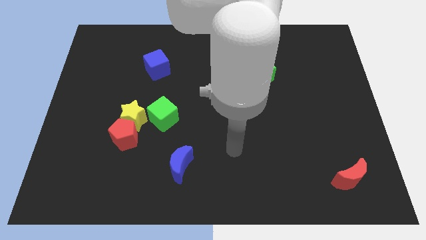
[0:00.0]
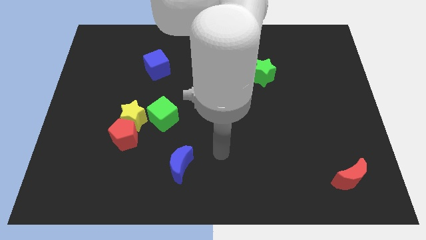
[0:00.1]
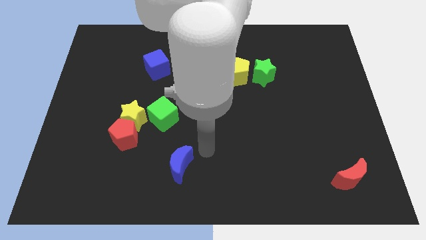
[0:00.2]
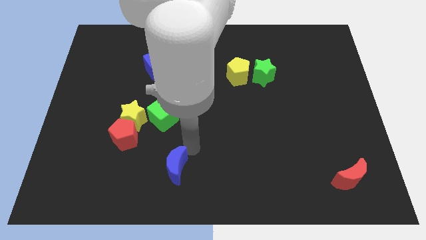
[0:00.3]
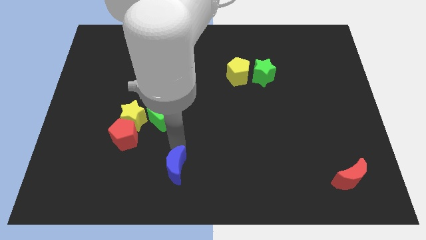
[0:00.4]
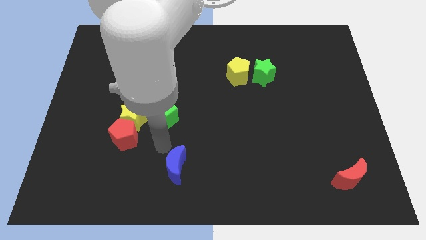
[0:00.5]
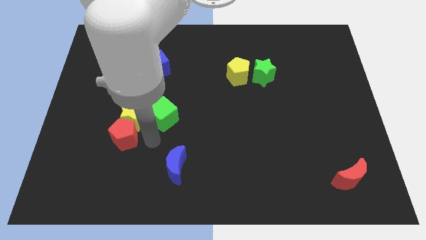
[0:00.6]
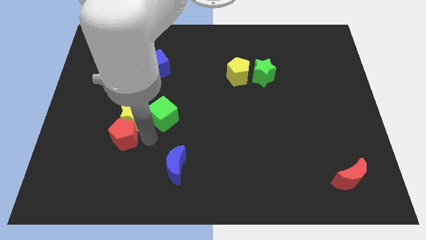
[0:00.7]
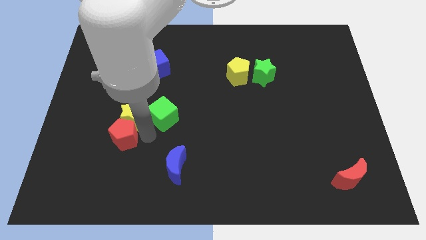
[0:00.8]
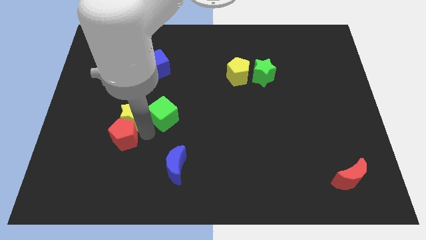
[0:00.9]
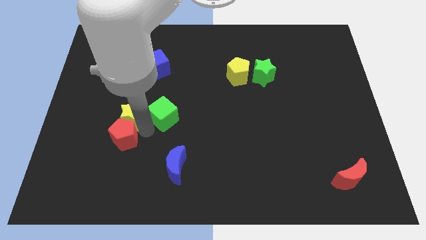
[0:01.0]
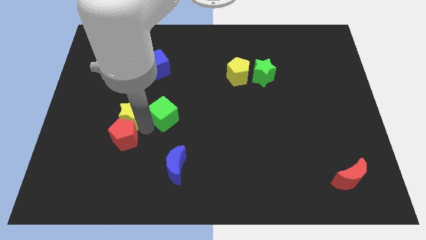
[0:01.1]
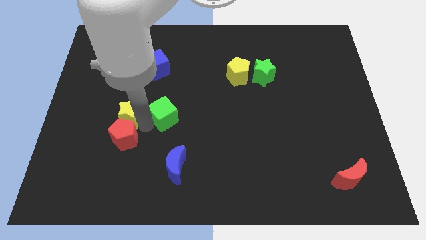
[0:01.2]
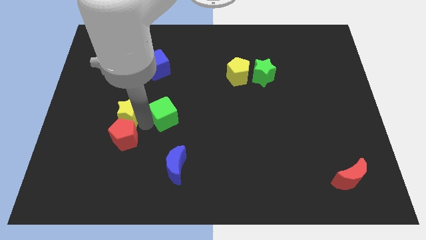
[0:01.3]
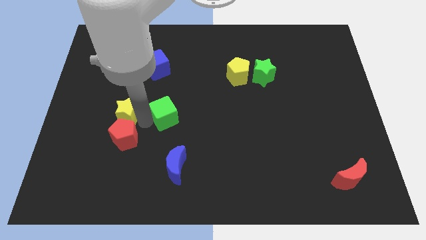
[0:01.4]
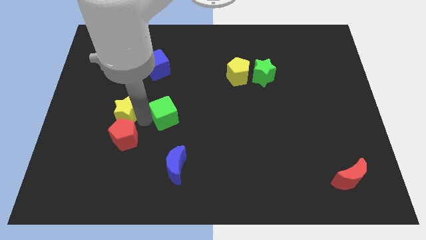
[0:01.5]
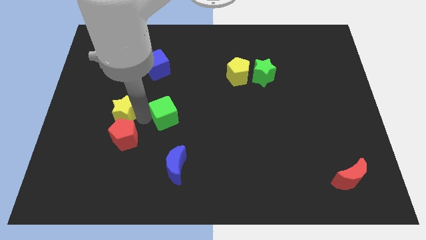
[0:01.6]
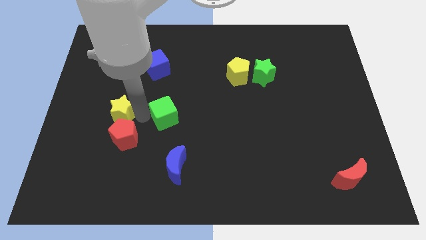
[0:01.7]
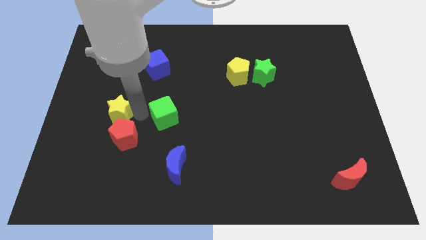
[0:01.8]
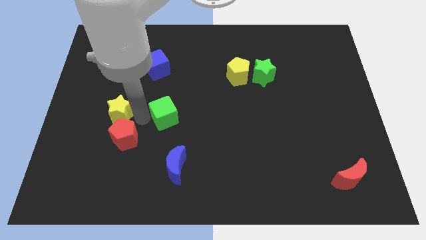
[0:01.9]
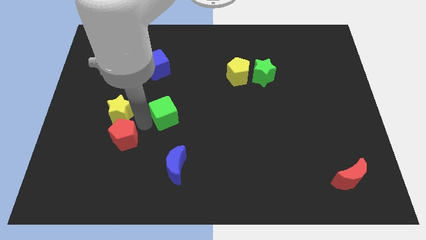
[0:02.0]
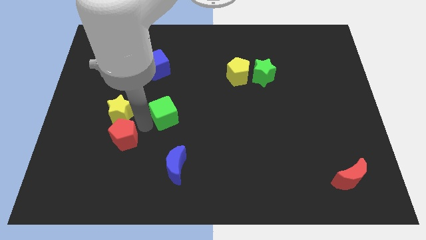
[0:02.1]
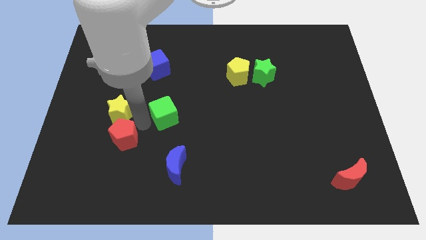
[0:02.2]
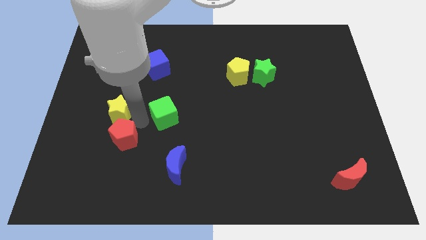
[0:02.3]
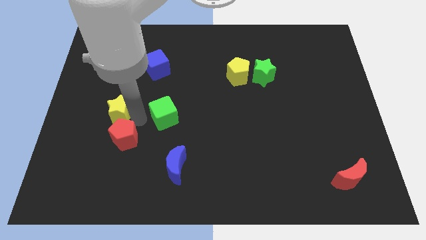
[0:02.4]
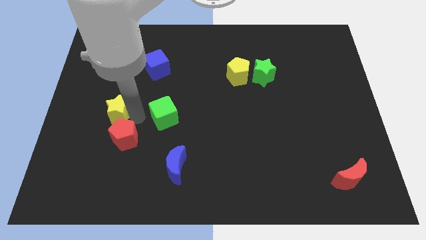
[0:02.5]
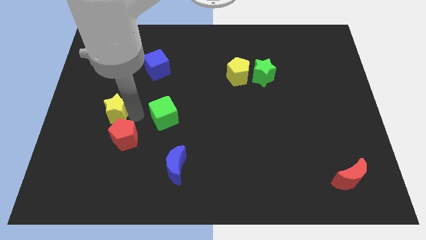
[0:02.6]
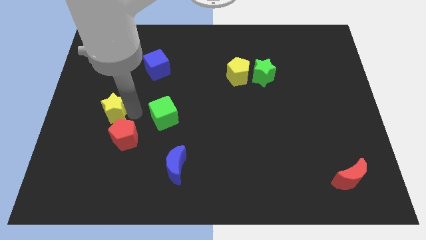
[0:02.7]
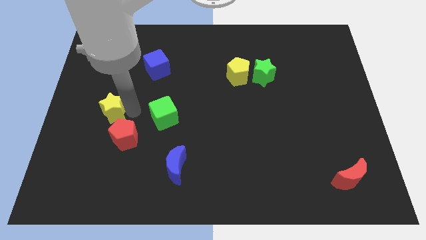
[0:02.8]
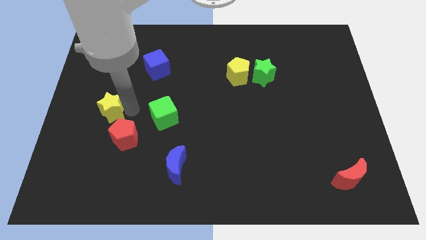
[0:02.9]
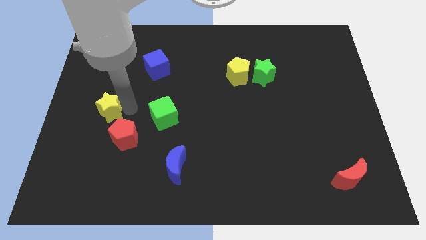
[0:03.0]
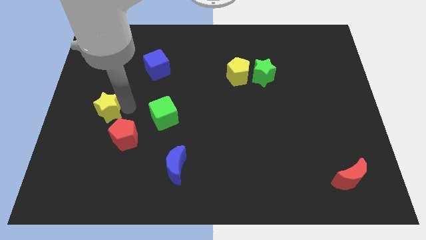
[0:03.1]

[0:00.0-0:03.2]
move the yellow star away from the red pentagon and green cube

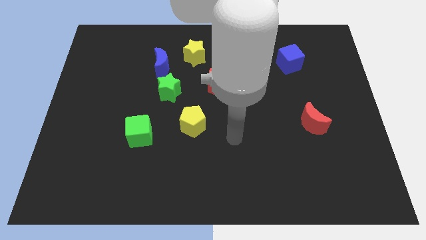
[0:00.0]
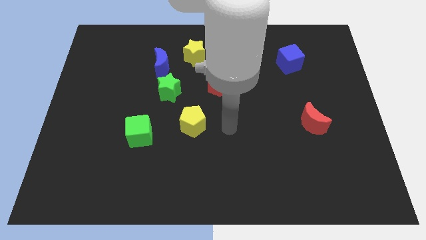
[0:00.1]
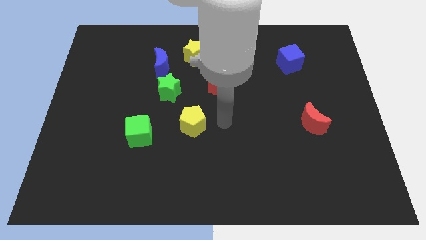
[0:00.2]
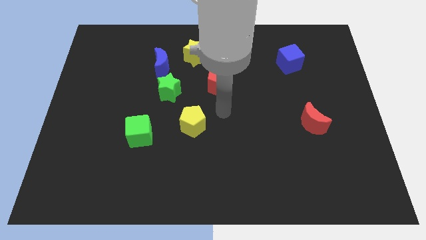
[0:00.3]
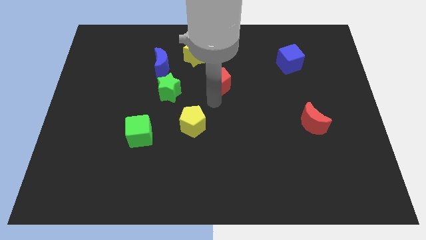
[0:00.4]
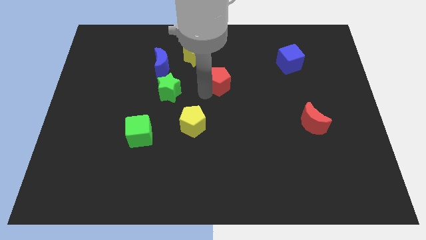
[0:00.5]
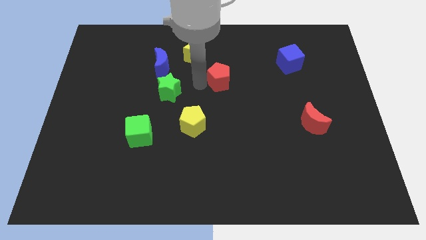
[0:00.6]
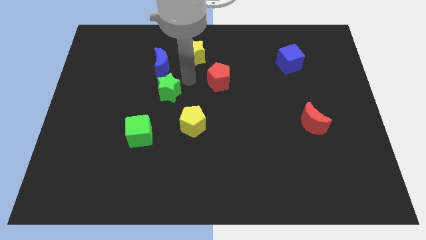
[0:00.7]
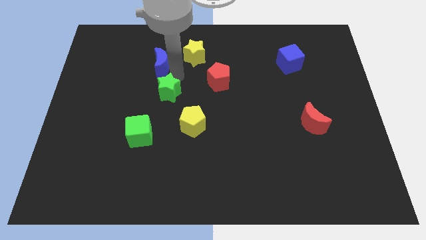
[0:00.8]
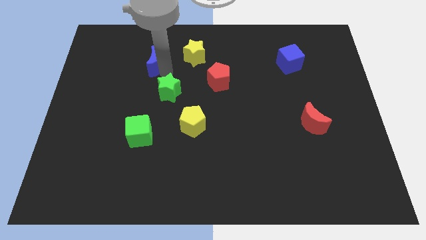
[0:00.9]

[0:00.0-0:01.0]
move the green star away from the blue moon

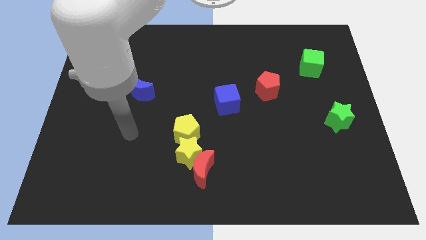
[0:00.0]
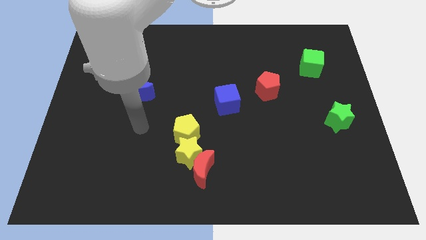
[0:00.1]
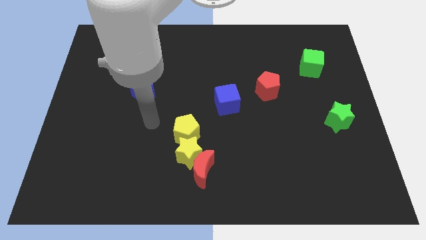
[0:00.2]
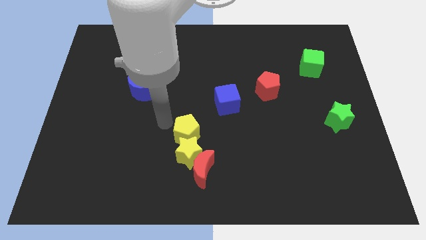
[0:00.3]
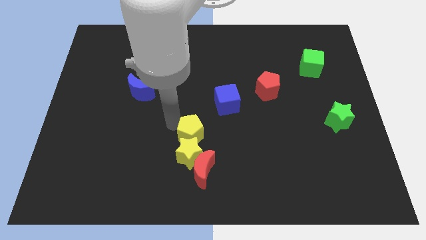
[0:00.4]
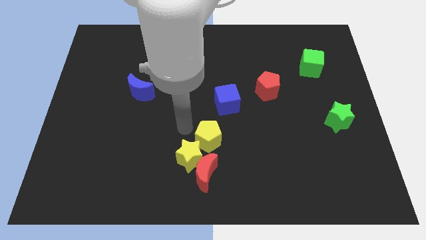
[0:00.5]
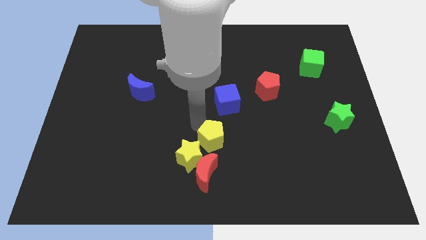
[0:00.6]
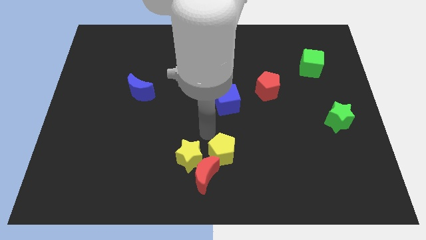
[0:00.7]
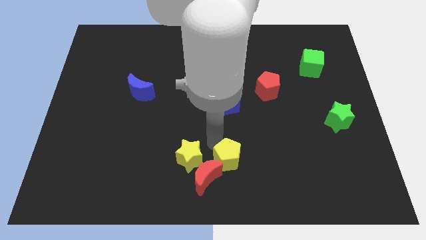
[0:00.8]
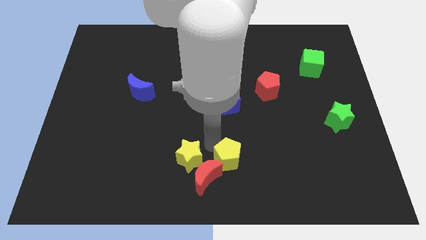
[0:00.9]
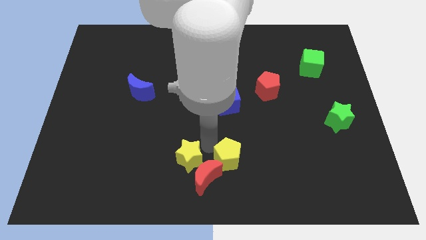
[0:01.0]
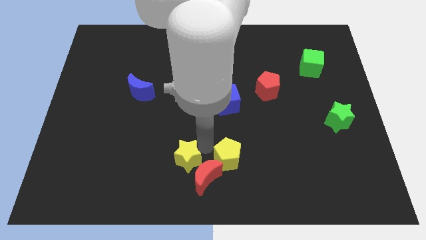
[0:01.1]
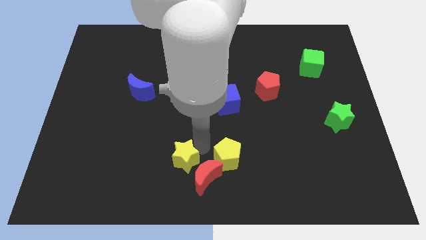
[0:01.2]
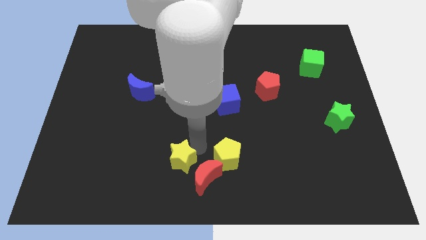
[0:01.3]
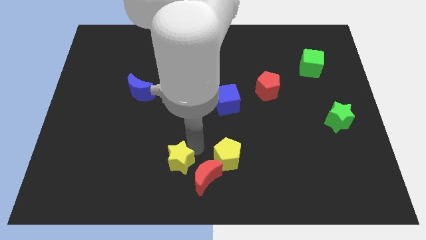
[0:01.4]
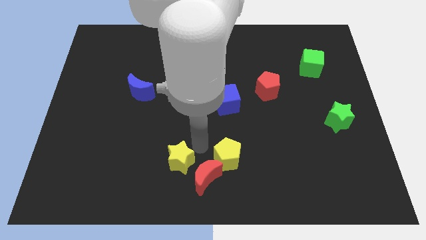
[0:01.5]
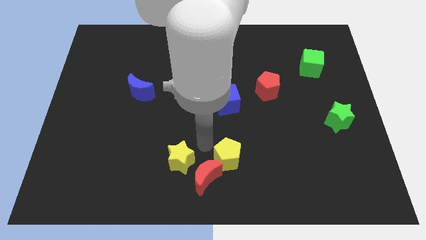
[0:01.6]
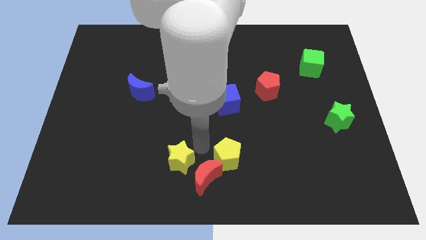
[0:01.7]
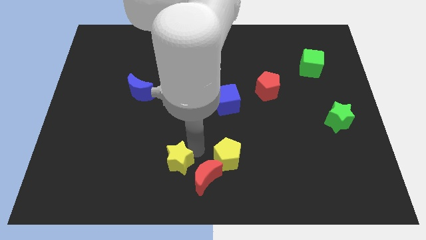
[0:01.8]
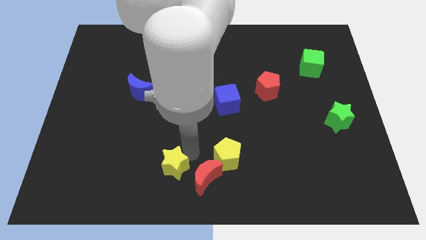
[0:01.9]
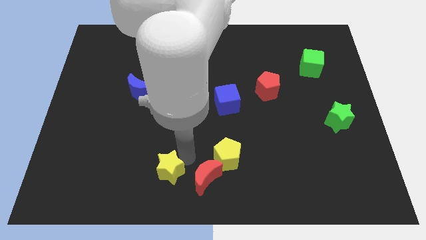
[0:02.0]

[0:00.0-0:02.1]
move the yellow star away from the red moon and yellow pentagon

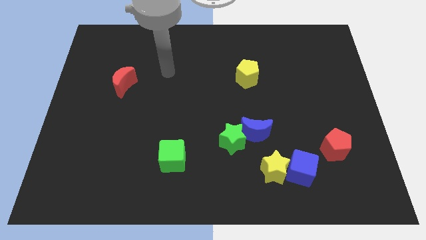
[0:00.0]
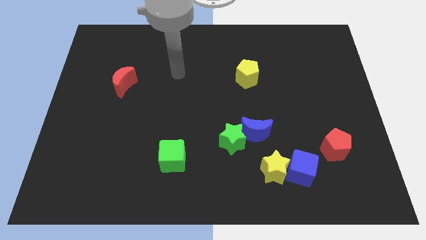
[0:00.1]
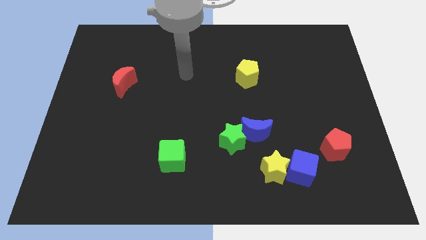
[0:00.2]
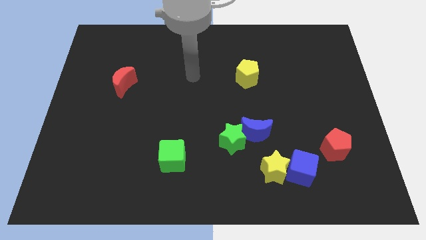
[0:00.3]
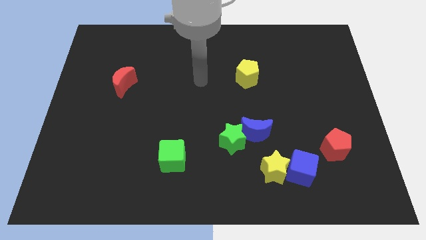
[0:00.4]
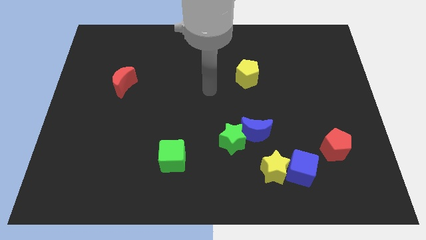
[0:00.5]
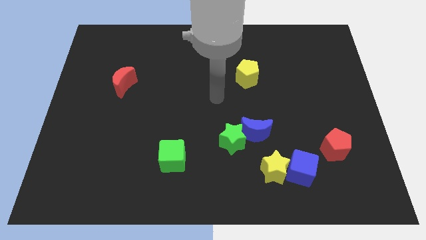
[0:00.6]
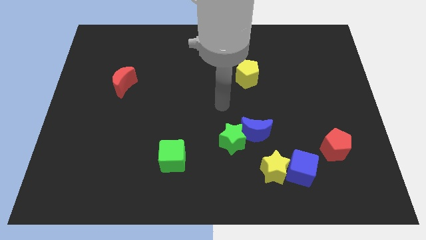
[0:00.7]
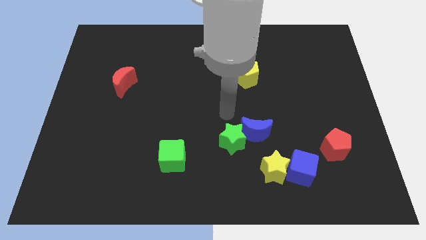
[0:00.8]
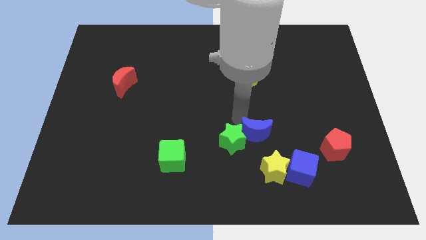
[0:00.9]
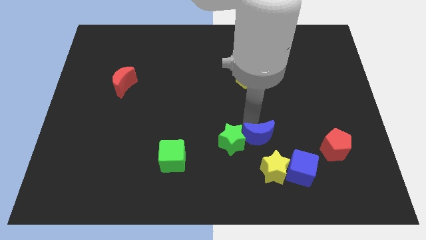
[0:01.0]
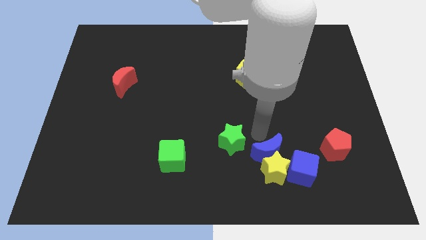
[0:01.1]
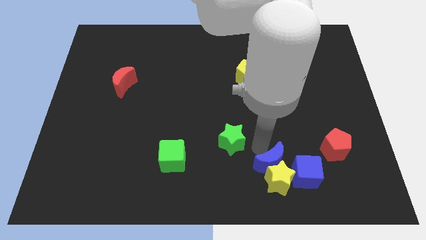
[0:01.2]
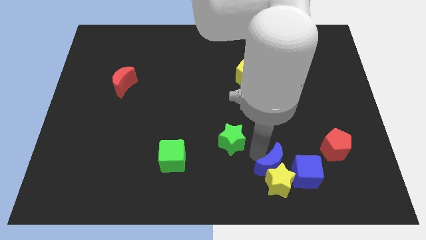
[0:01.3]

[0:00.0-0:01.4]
separate the green star from the blue moon

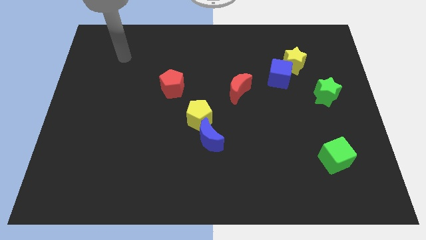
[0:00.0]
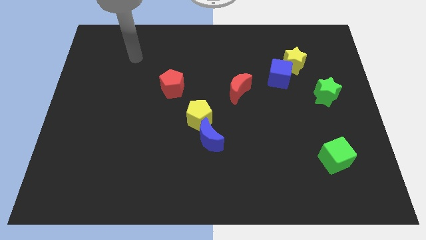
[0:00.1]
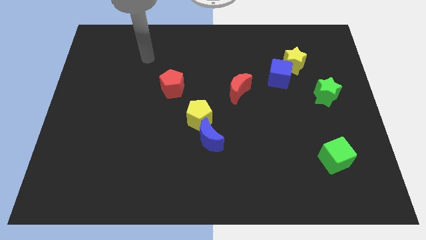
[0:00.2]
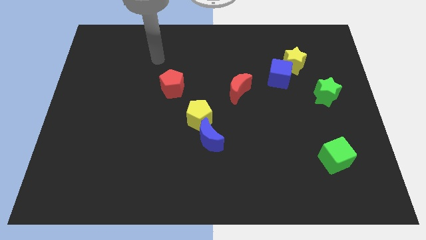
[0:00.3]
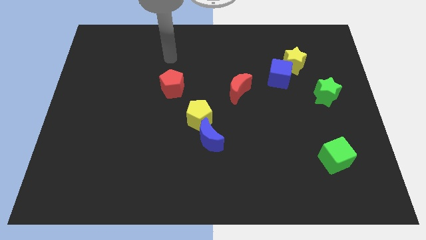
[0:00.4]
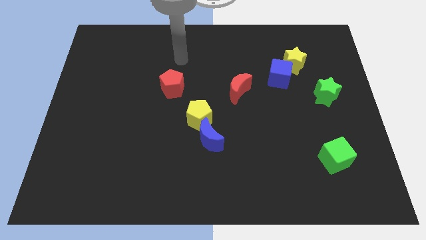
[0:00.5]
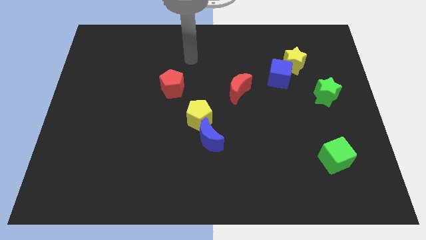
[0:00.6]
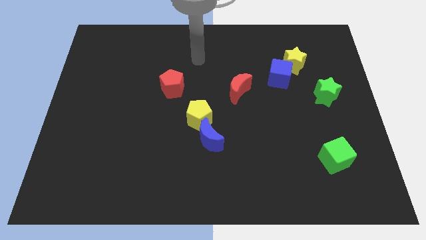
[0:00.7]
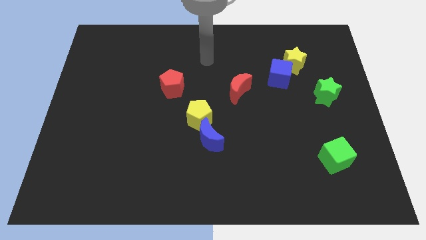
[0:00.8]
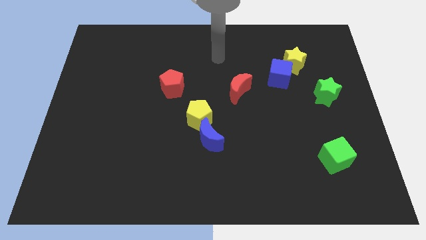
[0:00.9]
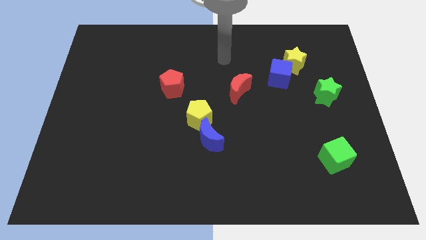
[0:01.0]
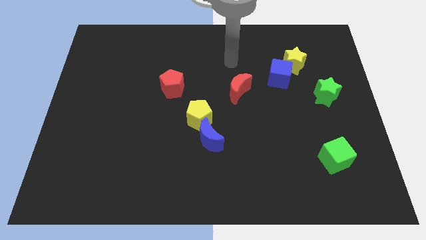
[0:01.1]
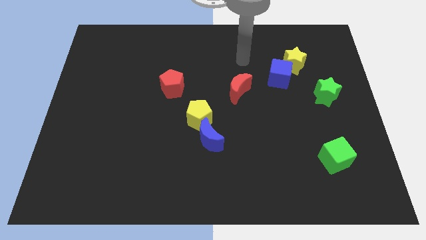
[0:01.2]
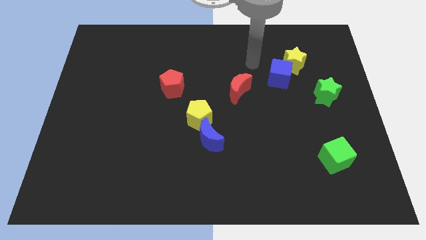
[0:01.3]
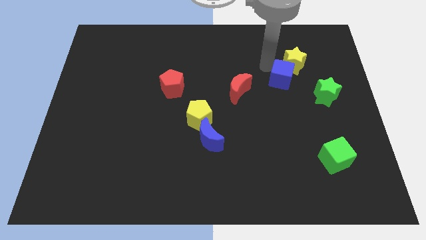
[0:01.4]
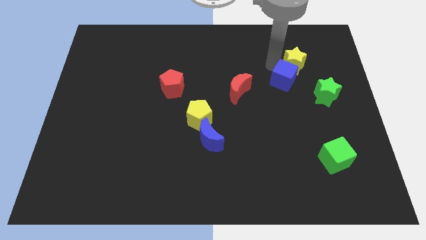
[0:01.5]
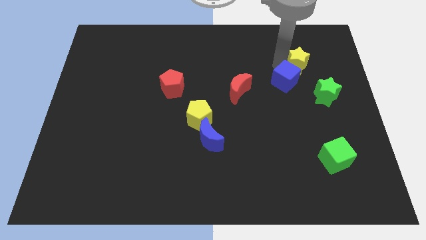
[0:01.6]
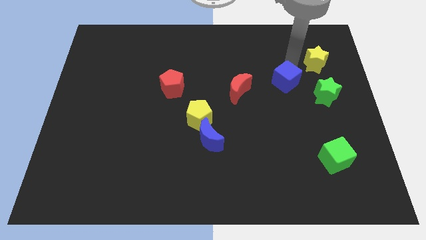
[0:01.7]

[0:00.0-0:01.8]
move the blue cube away from the yellow star
